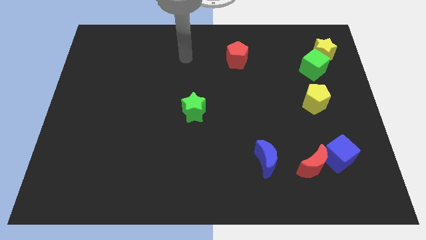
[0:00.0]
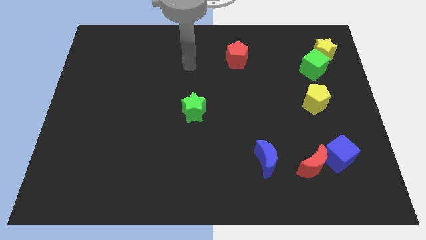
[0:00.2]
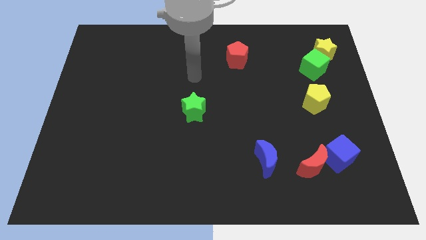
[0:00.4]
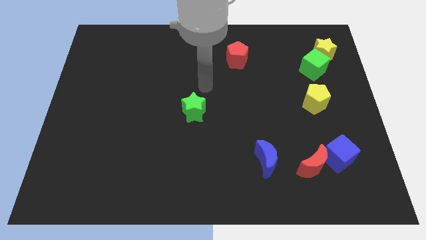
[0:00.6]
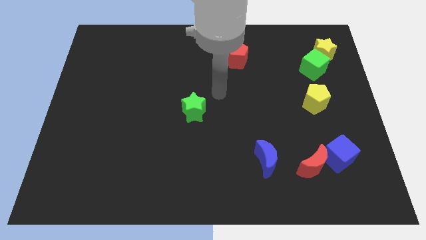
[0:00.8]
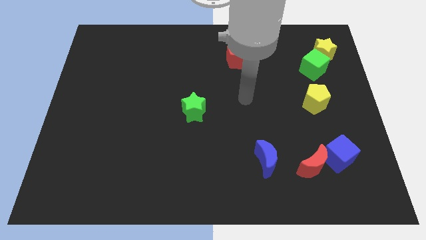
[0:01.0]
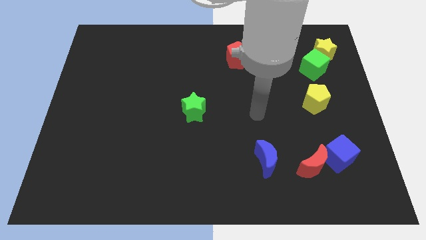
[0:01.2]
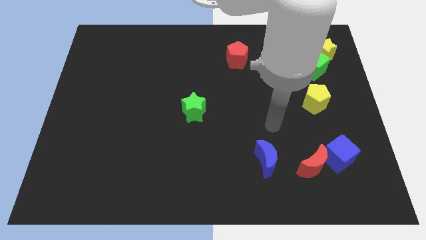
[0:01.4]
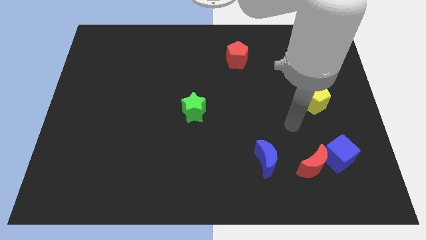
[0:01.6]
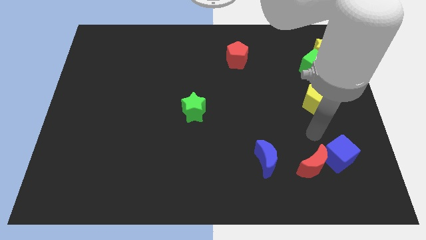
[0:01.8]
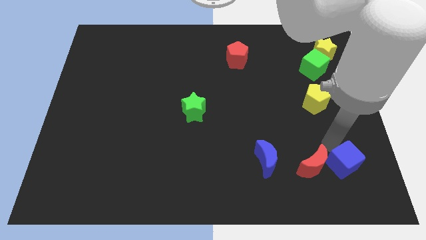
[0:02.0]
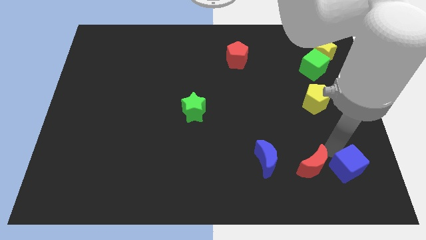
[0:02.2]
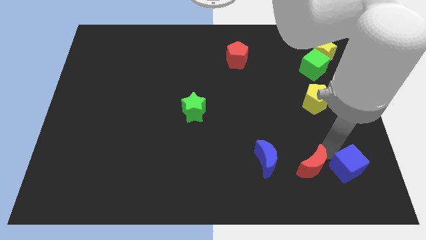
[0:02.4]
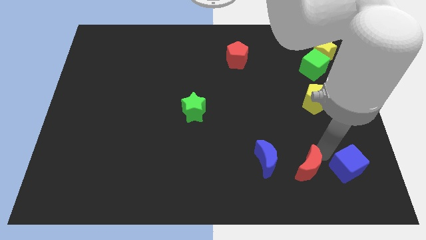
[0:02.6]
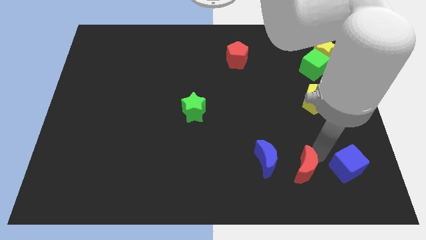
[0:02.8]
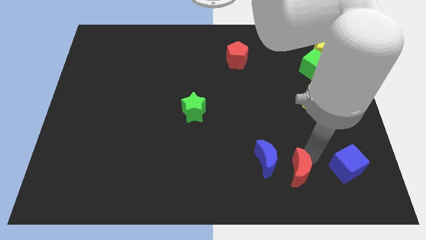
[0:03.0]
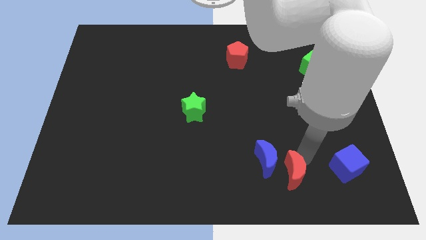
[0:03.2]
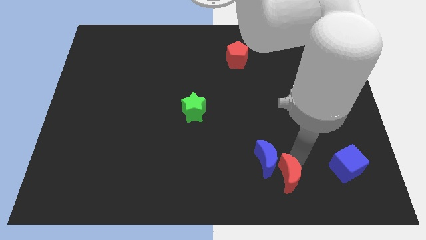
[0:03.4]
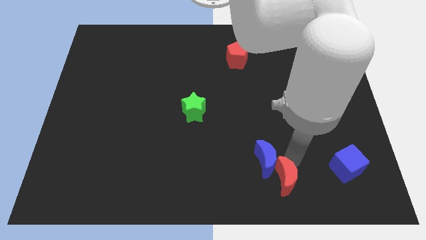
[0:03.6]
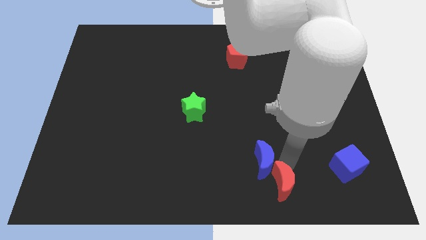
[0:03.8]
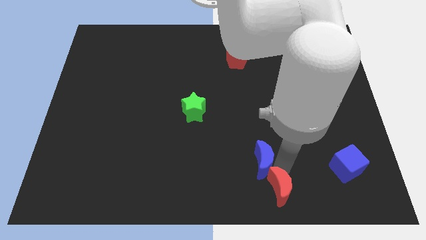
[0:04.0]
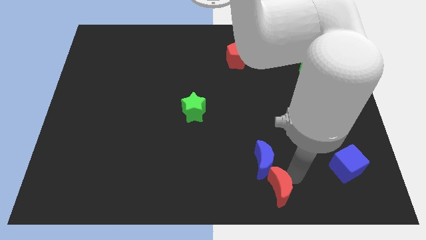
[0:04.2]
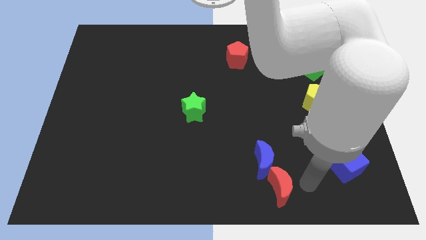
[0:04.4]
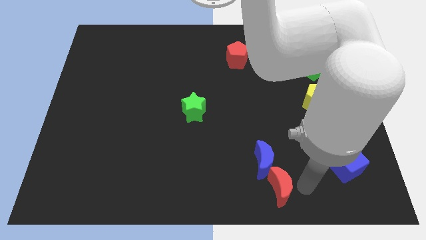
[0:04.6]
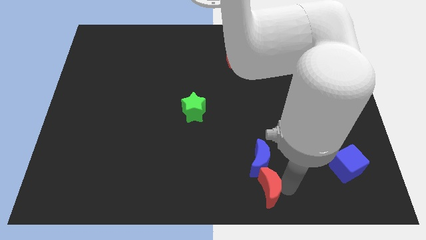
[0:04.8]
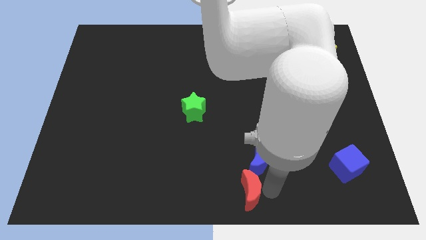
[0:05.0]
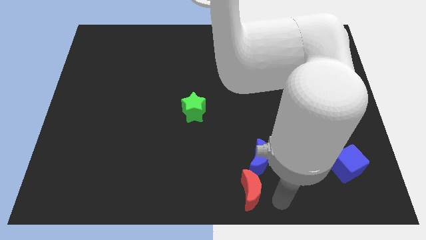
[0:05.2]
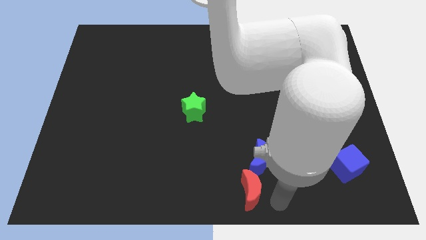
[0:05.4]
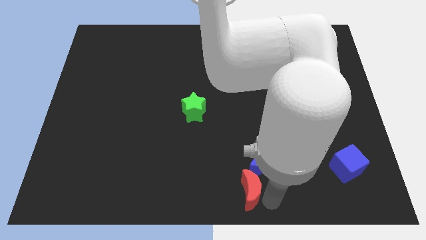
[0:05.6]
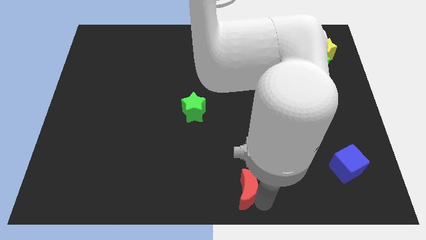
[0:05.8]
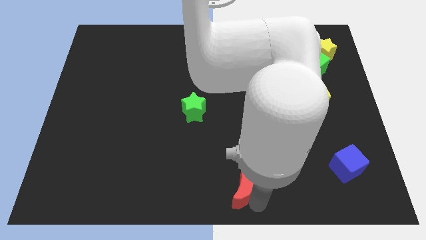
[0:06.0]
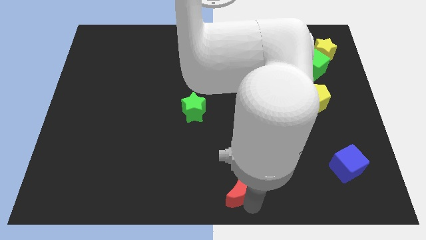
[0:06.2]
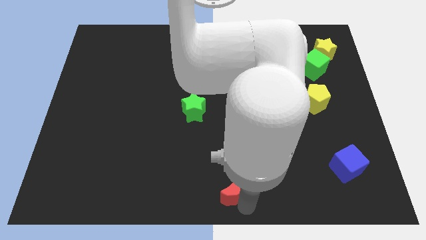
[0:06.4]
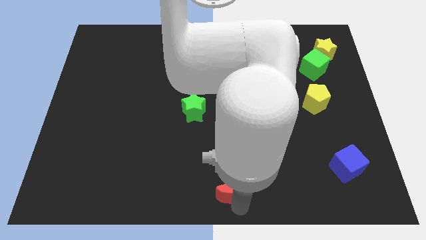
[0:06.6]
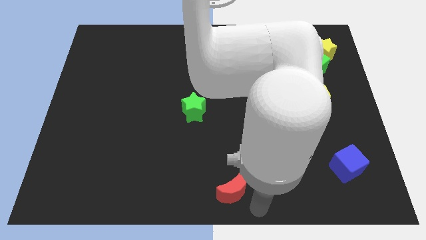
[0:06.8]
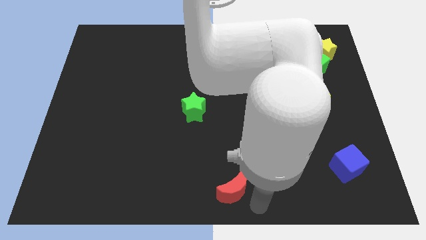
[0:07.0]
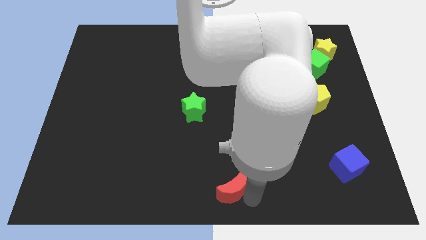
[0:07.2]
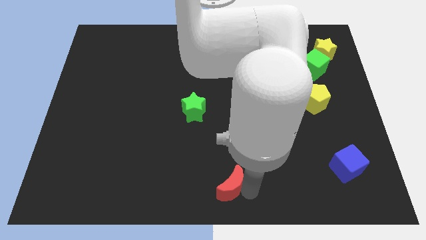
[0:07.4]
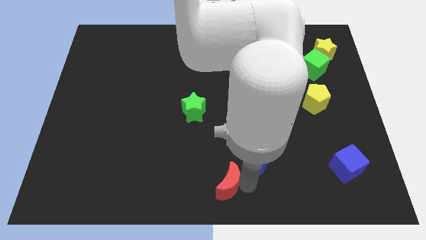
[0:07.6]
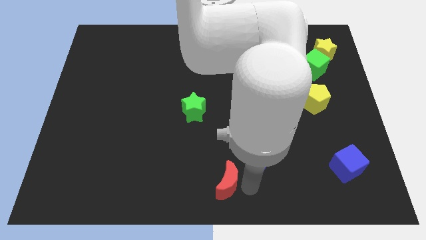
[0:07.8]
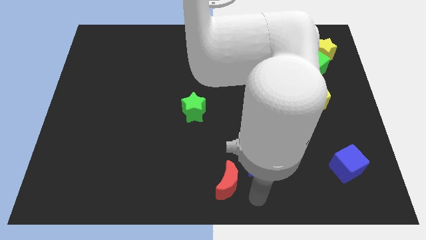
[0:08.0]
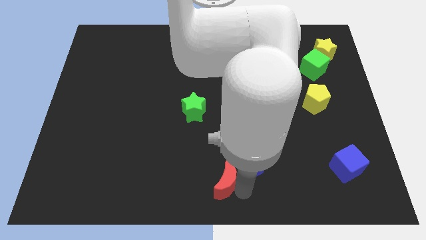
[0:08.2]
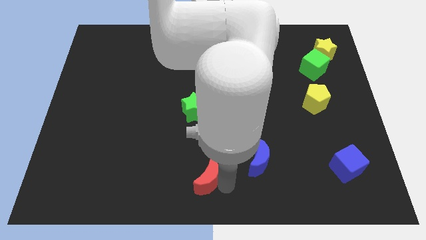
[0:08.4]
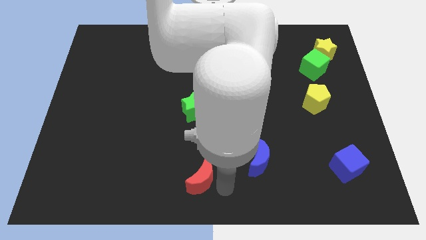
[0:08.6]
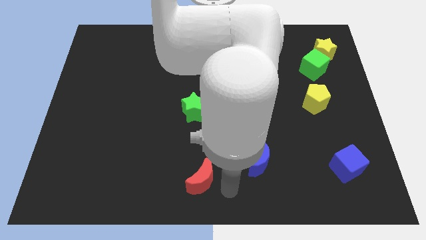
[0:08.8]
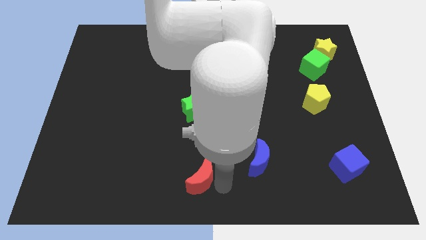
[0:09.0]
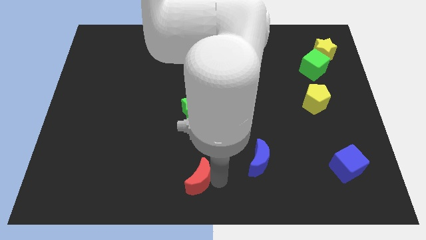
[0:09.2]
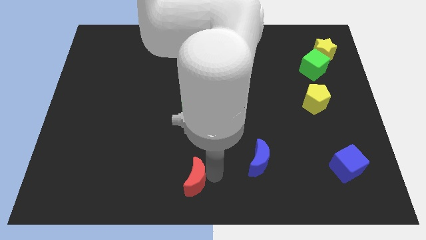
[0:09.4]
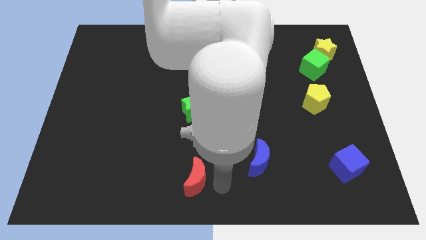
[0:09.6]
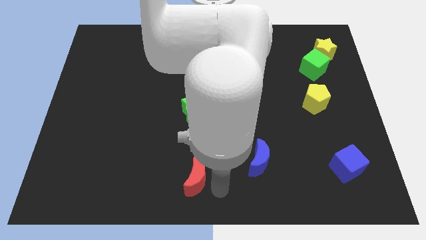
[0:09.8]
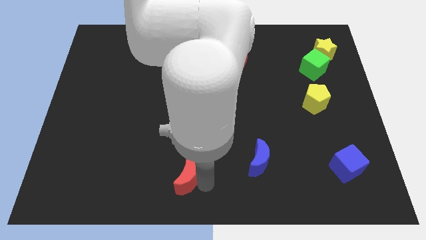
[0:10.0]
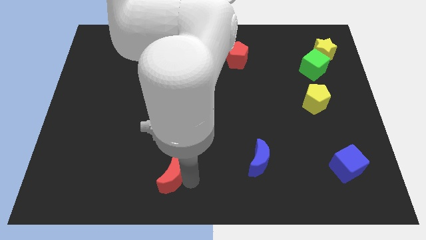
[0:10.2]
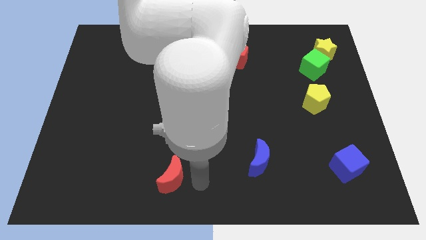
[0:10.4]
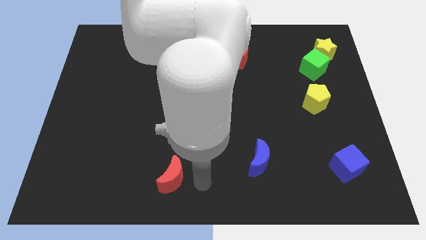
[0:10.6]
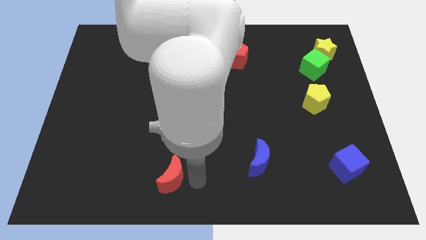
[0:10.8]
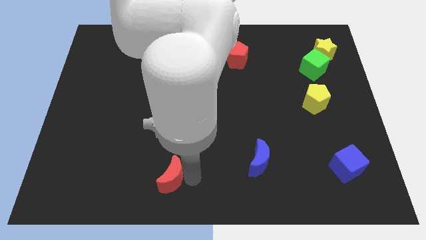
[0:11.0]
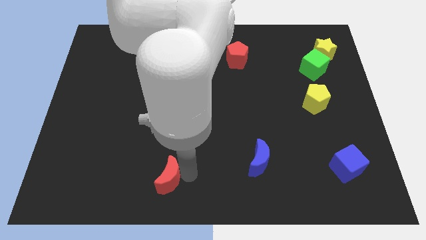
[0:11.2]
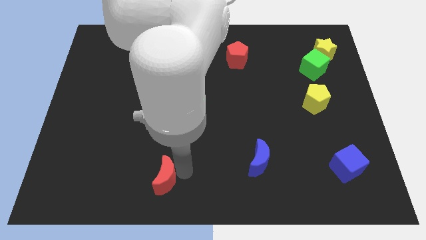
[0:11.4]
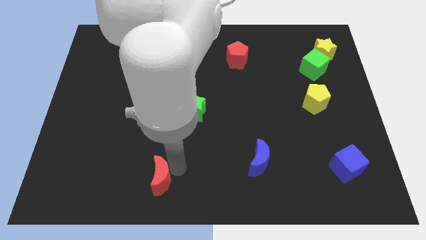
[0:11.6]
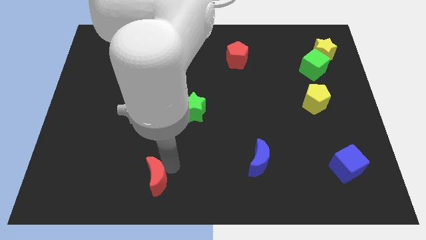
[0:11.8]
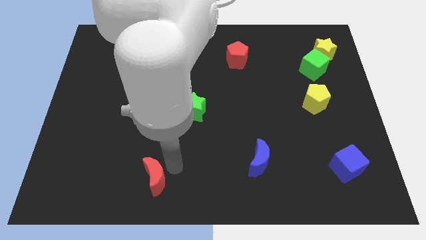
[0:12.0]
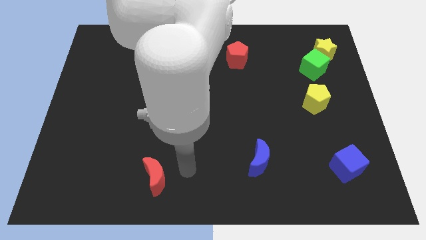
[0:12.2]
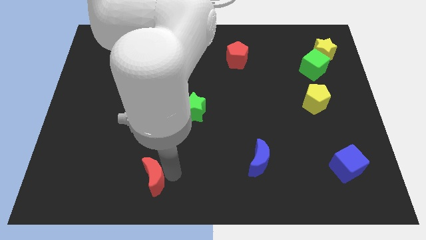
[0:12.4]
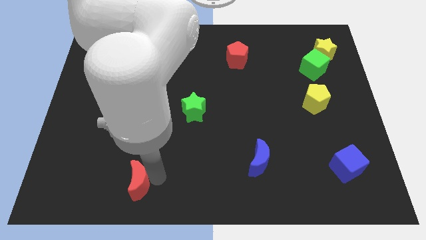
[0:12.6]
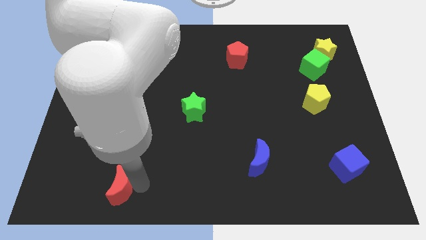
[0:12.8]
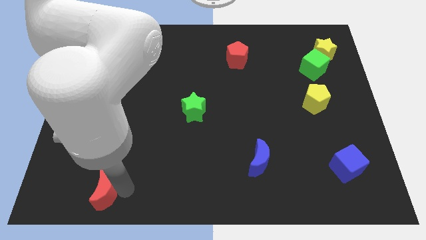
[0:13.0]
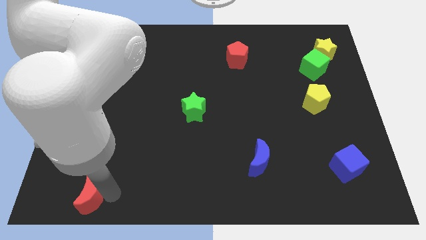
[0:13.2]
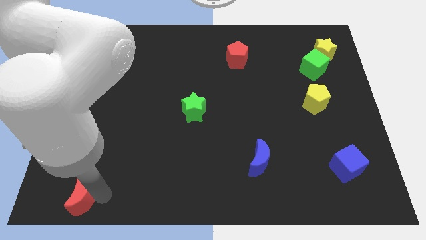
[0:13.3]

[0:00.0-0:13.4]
move the red moon to the bottom left corner
